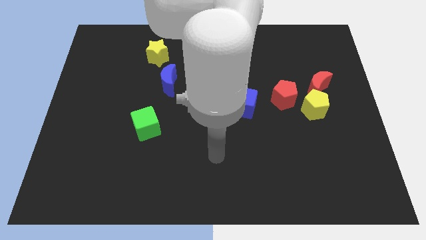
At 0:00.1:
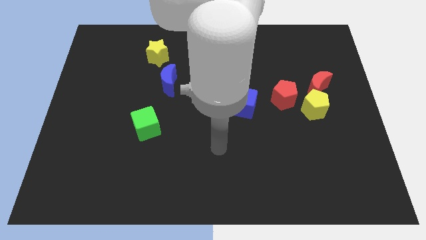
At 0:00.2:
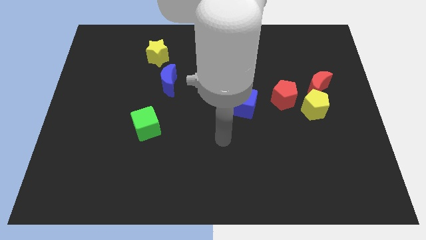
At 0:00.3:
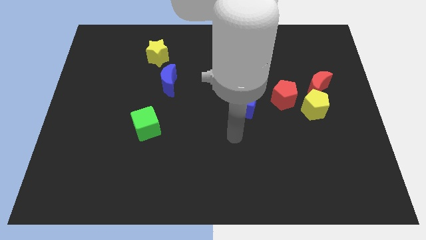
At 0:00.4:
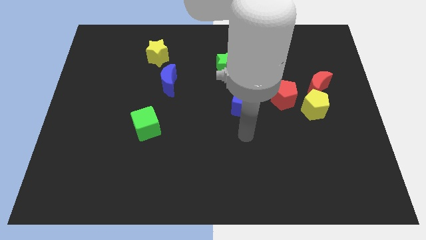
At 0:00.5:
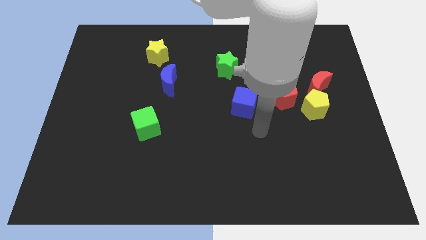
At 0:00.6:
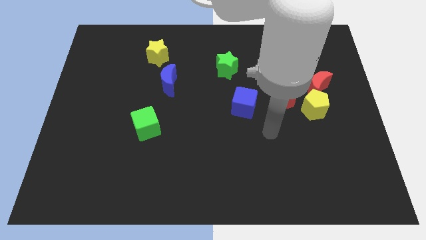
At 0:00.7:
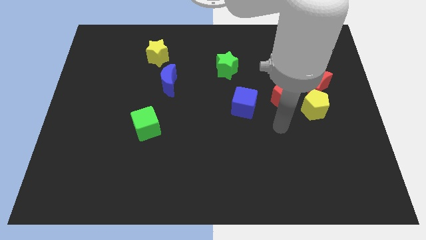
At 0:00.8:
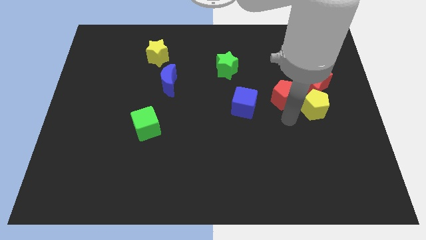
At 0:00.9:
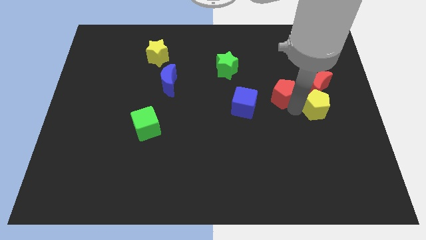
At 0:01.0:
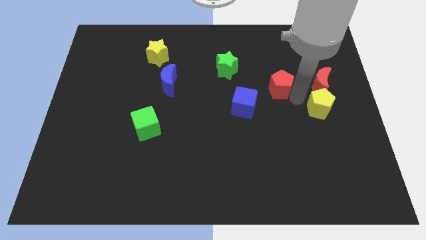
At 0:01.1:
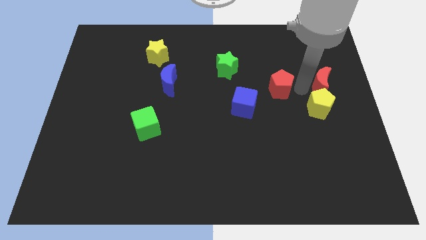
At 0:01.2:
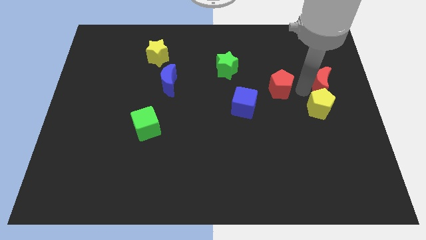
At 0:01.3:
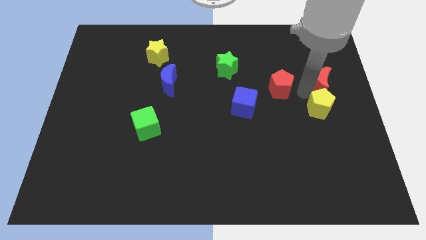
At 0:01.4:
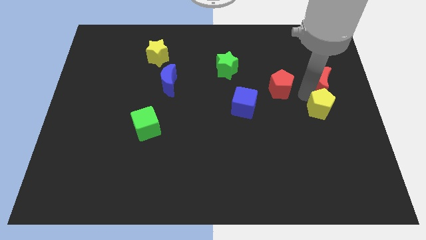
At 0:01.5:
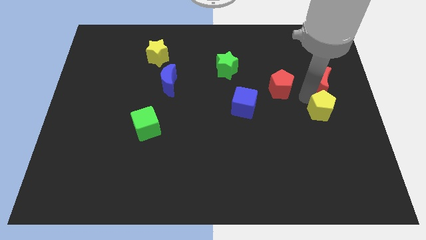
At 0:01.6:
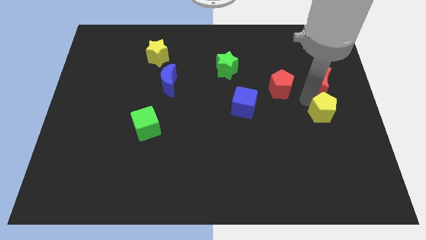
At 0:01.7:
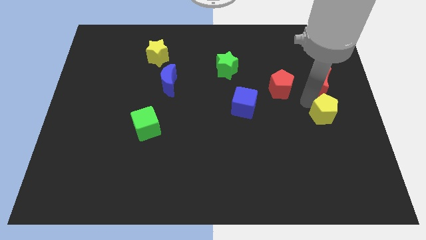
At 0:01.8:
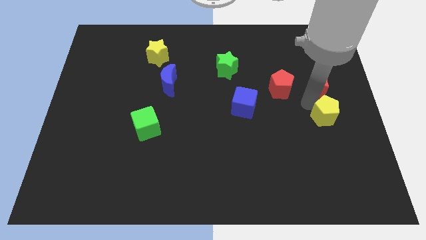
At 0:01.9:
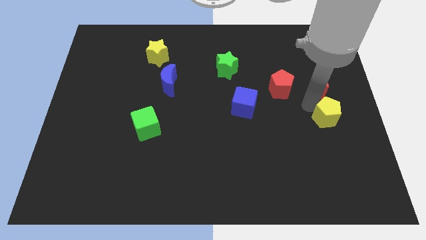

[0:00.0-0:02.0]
separate the yellow pentagon from the red moon and red pentagon

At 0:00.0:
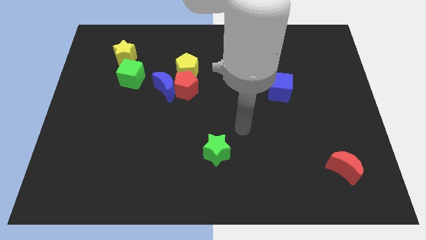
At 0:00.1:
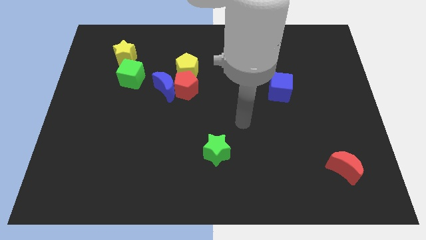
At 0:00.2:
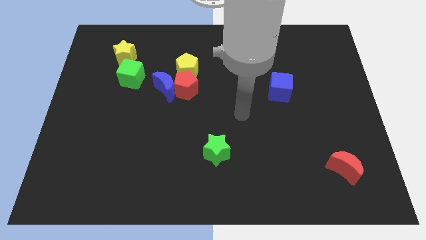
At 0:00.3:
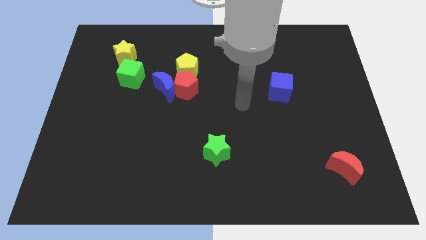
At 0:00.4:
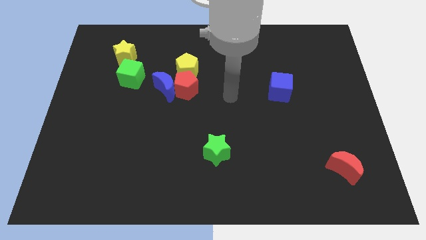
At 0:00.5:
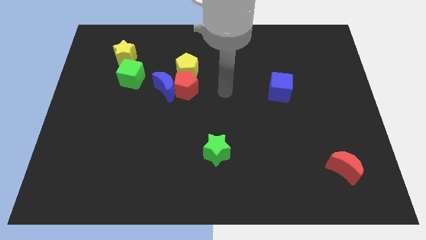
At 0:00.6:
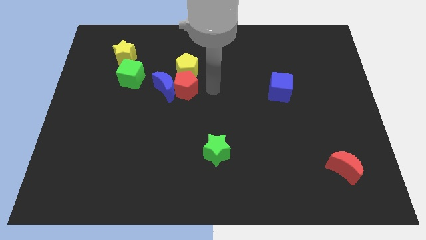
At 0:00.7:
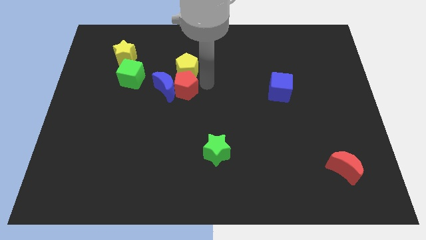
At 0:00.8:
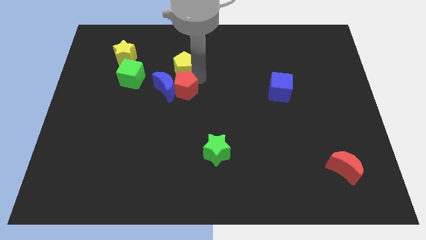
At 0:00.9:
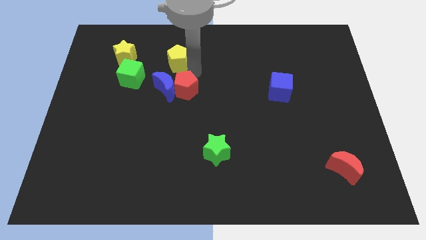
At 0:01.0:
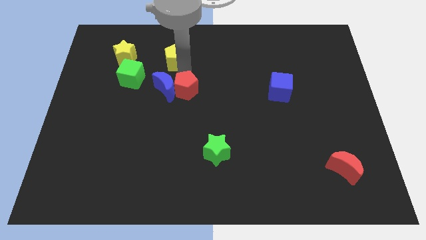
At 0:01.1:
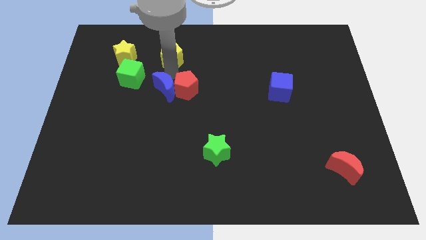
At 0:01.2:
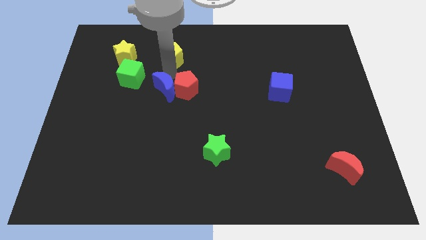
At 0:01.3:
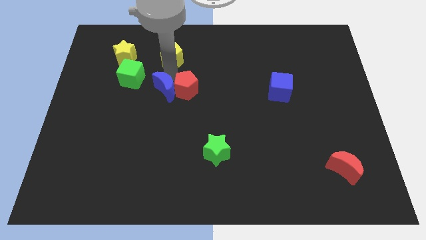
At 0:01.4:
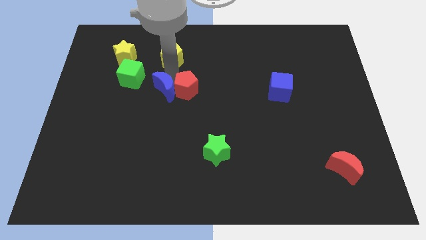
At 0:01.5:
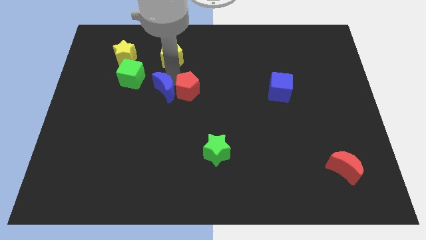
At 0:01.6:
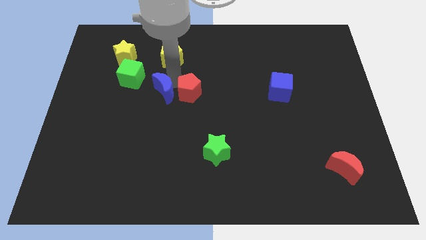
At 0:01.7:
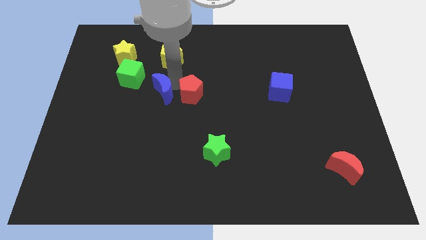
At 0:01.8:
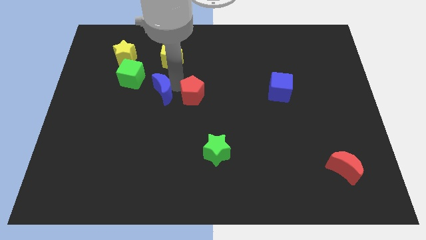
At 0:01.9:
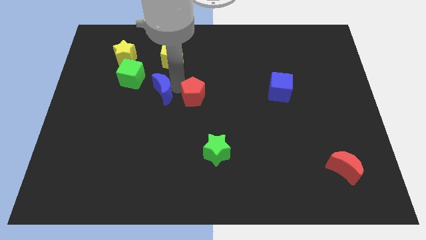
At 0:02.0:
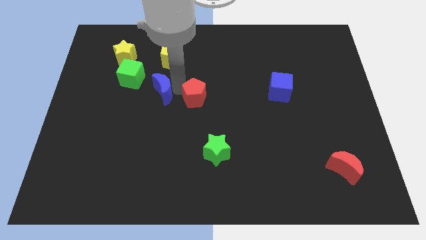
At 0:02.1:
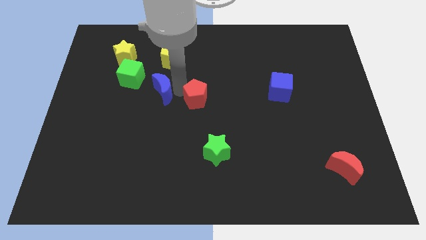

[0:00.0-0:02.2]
separate the red pentagon from the blue moon and yellow pentagon

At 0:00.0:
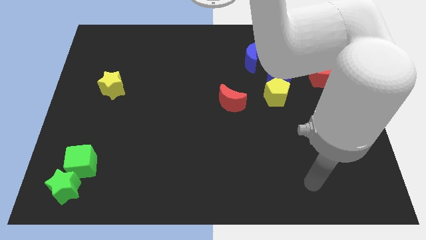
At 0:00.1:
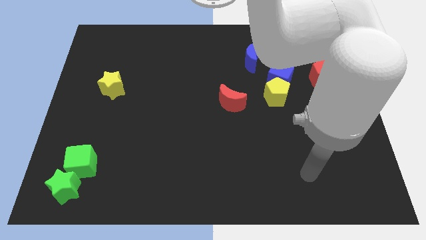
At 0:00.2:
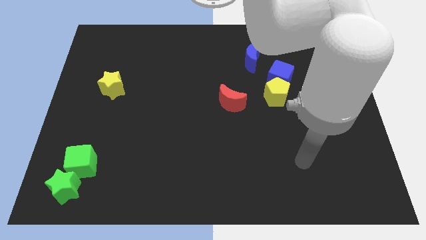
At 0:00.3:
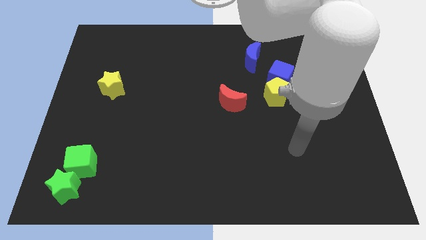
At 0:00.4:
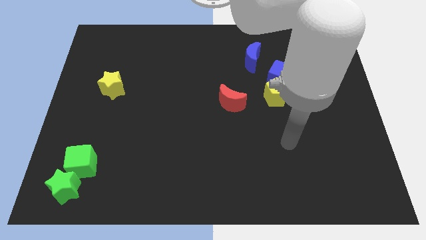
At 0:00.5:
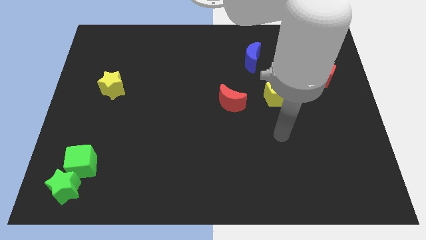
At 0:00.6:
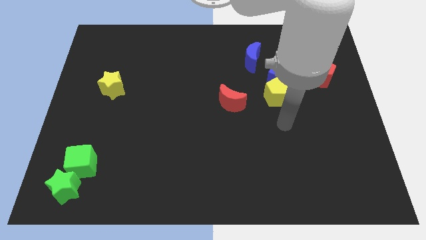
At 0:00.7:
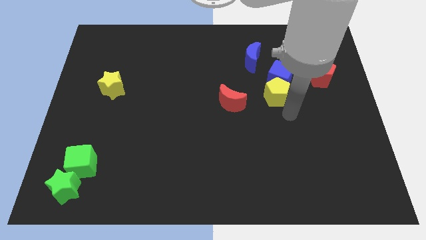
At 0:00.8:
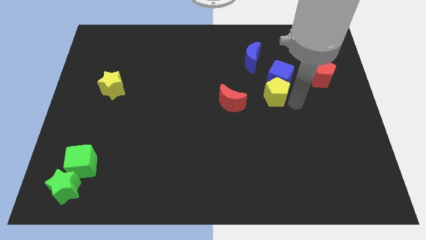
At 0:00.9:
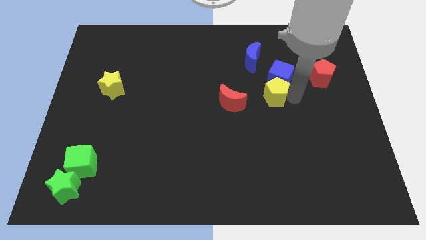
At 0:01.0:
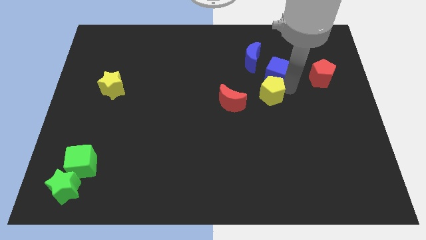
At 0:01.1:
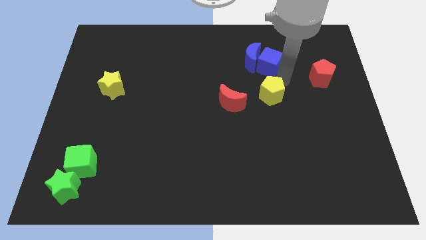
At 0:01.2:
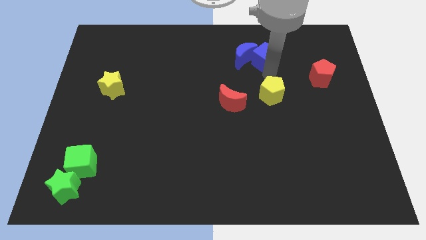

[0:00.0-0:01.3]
pull the yellow pentagon apart from the blue cube

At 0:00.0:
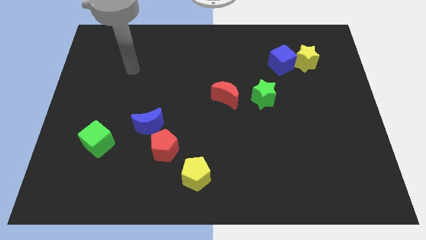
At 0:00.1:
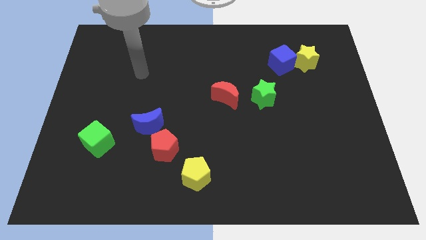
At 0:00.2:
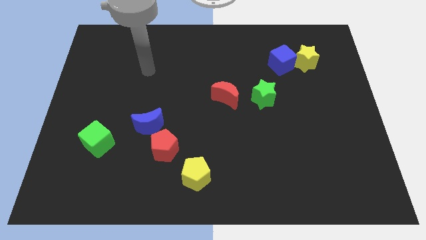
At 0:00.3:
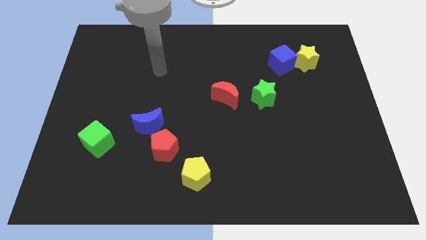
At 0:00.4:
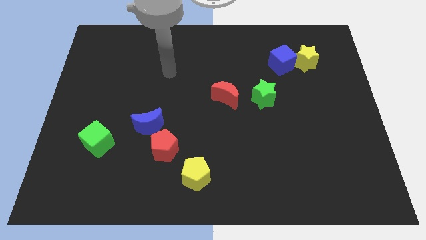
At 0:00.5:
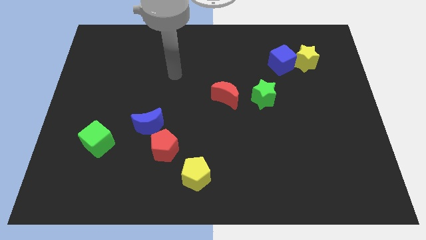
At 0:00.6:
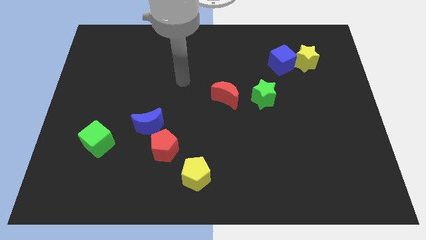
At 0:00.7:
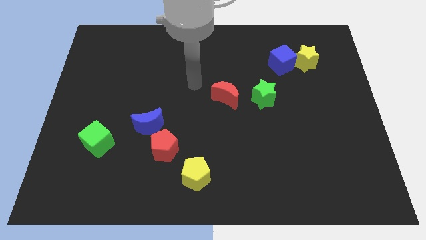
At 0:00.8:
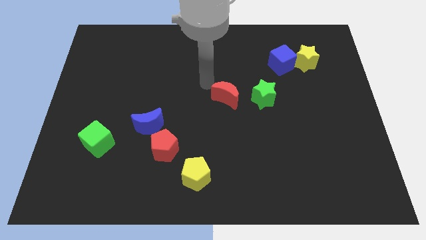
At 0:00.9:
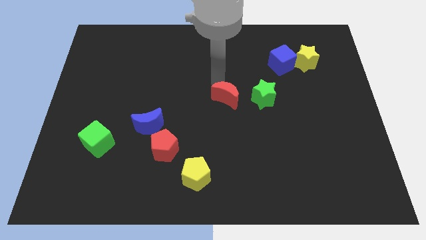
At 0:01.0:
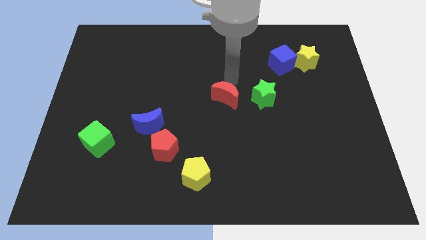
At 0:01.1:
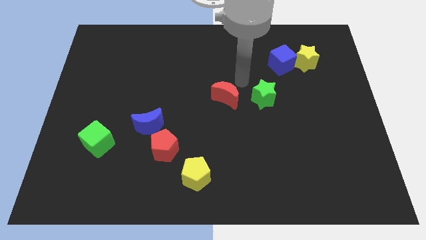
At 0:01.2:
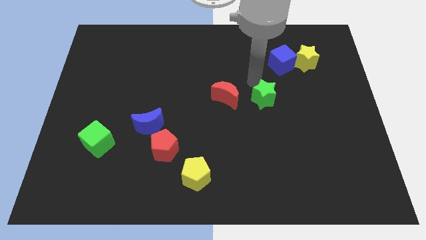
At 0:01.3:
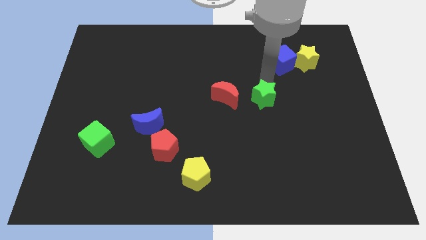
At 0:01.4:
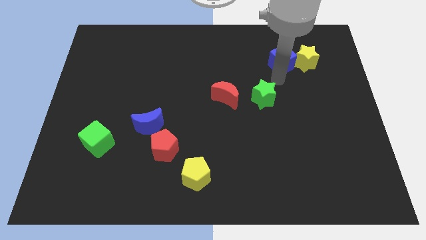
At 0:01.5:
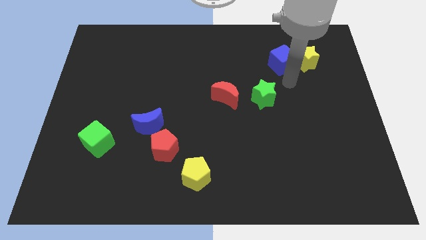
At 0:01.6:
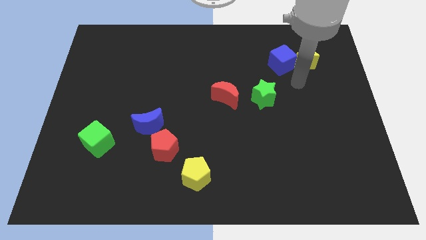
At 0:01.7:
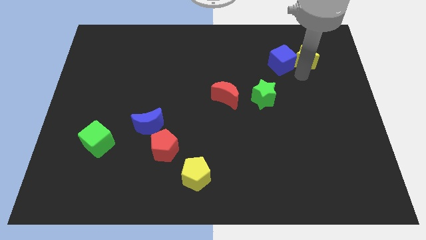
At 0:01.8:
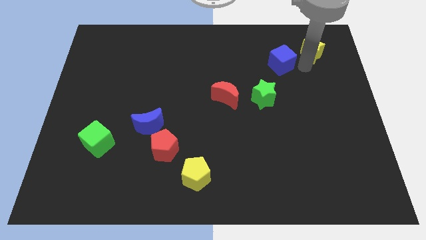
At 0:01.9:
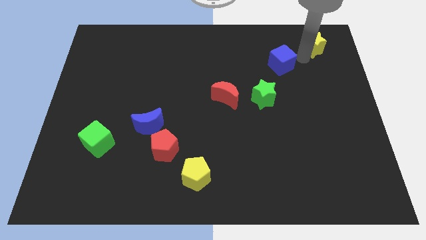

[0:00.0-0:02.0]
separate the blue cube from the yellow star

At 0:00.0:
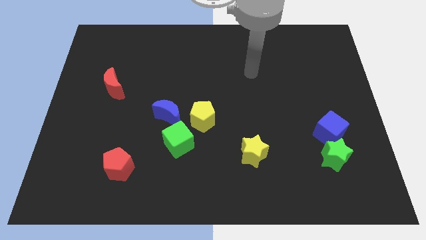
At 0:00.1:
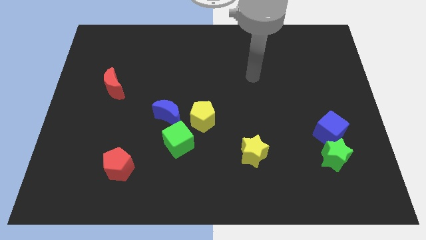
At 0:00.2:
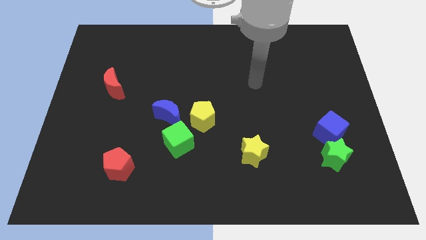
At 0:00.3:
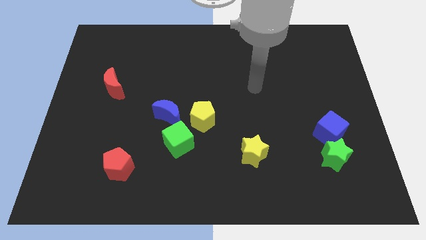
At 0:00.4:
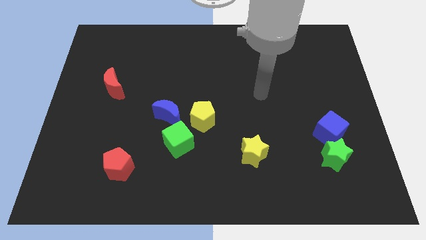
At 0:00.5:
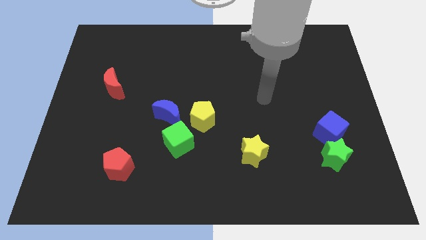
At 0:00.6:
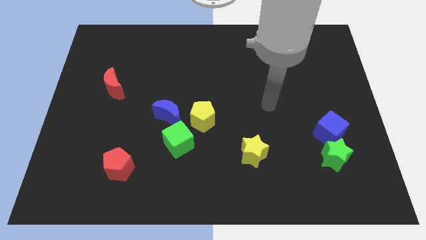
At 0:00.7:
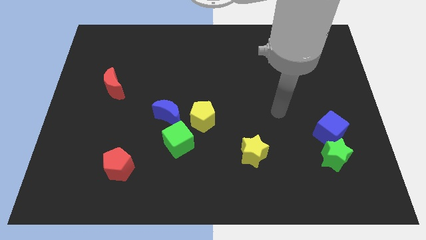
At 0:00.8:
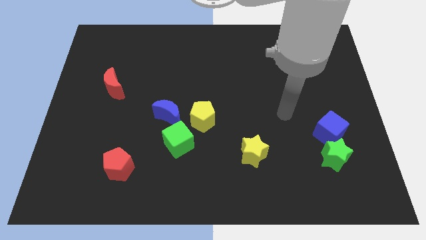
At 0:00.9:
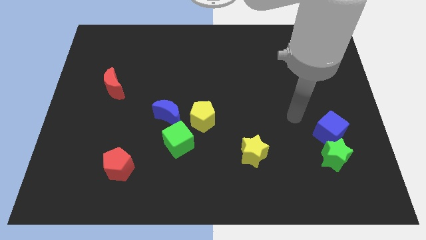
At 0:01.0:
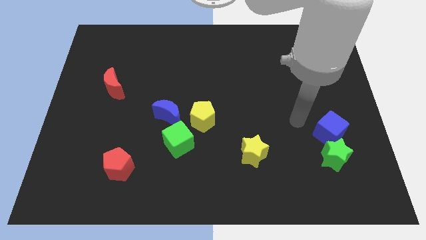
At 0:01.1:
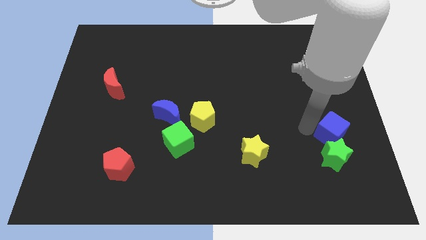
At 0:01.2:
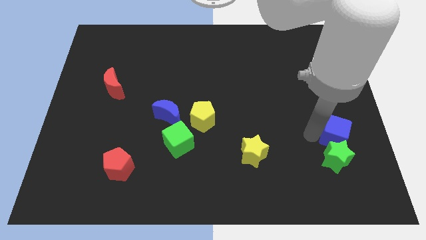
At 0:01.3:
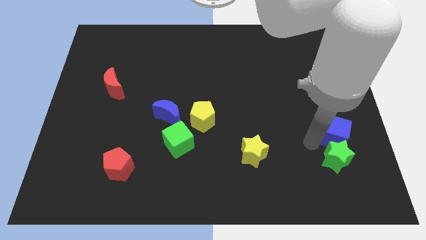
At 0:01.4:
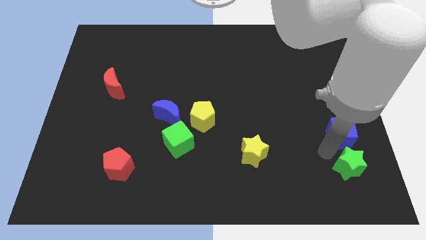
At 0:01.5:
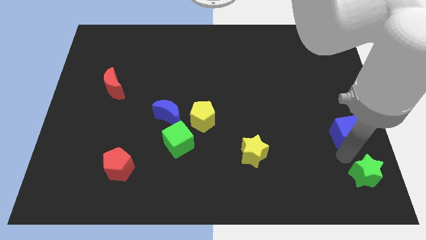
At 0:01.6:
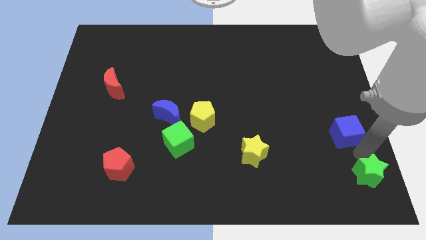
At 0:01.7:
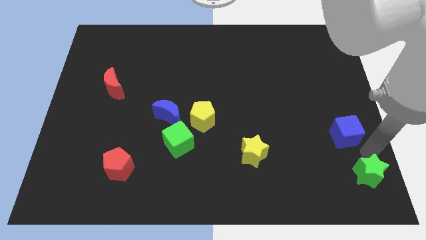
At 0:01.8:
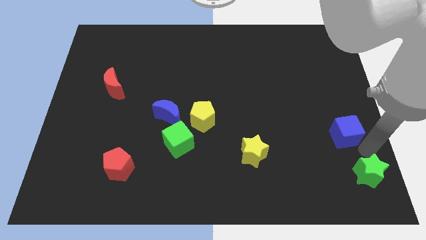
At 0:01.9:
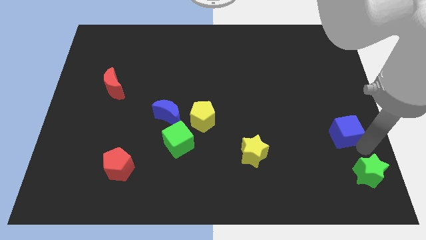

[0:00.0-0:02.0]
move the blue cube away from the green star

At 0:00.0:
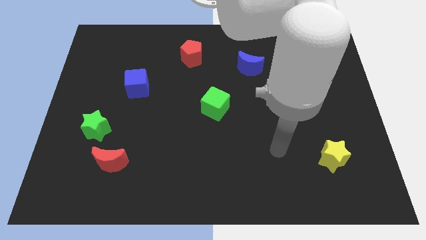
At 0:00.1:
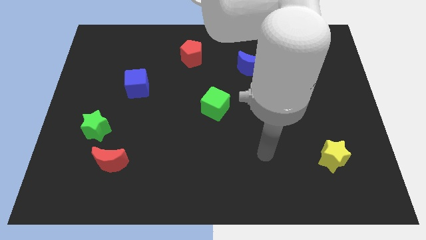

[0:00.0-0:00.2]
move the red moon away from the green star
